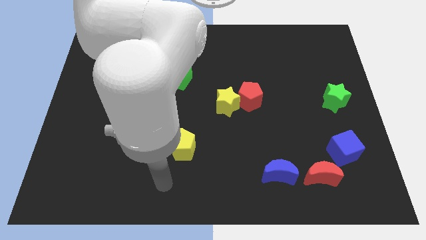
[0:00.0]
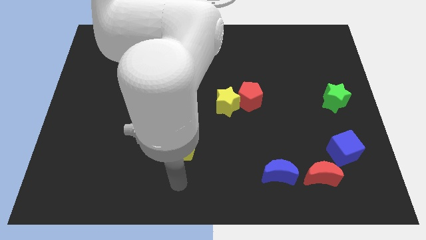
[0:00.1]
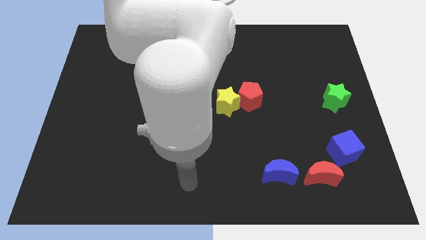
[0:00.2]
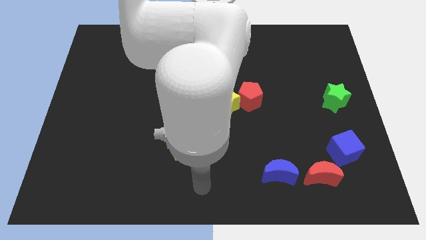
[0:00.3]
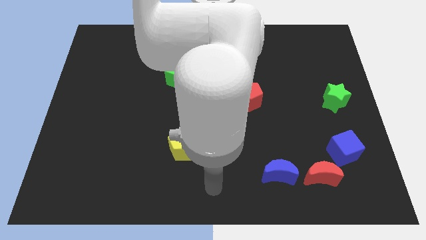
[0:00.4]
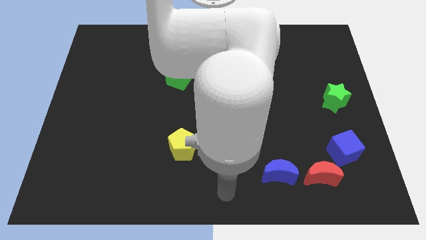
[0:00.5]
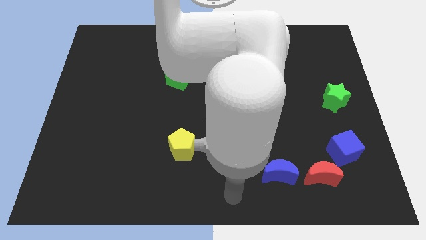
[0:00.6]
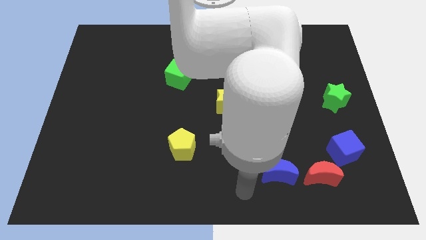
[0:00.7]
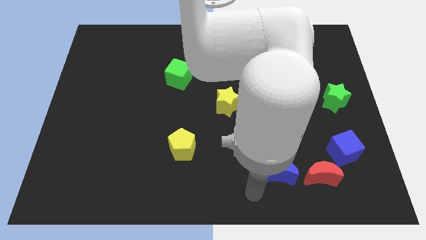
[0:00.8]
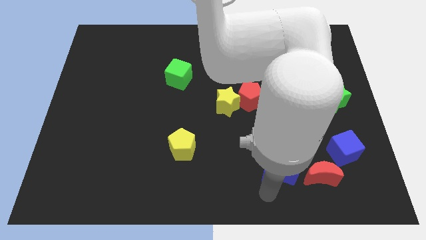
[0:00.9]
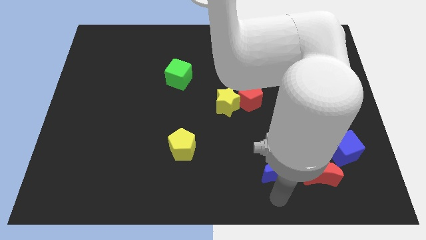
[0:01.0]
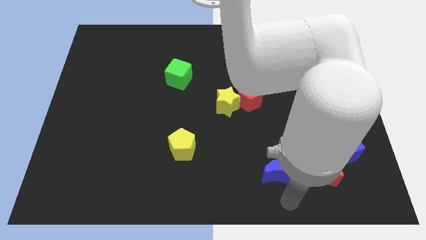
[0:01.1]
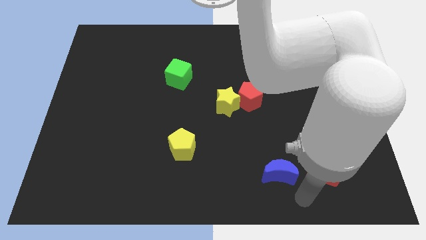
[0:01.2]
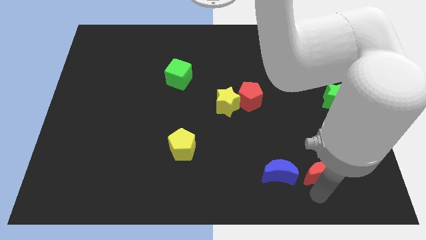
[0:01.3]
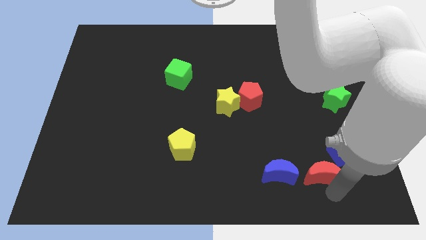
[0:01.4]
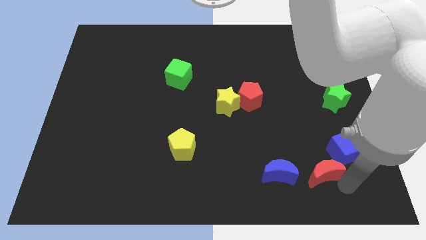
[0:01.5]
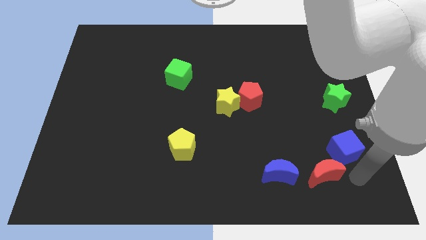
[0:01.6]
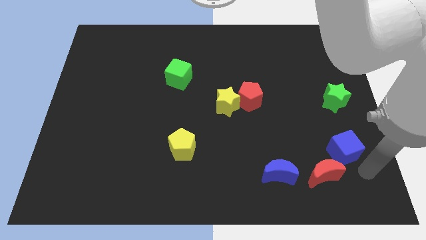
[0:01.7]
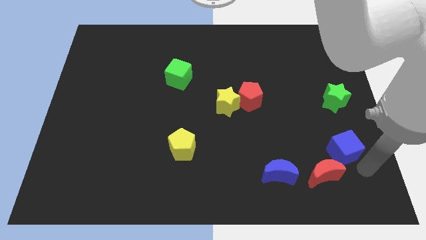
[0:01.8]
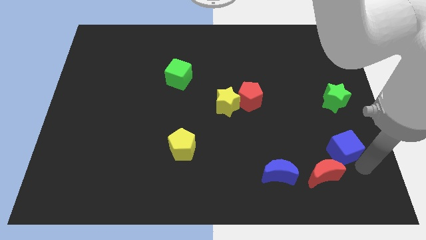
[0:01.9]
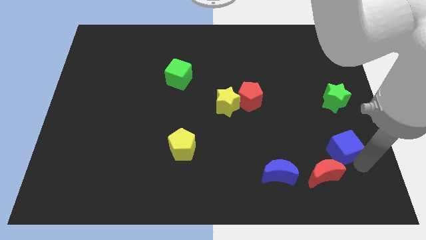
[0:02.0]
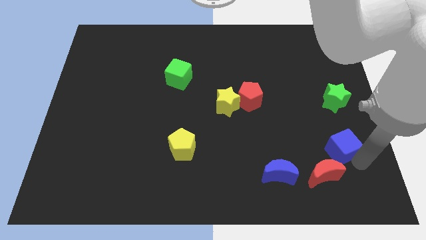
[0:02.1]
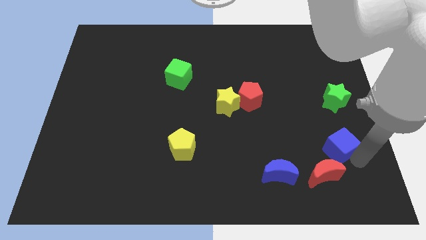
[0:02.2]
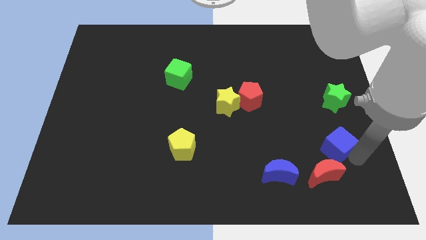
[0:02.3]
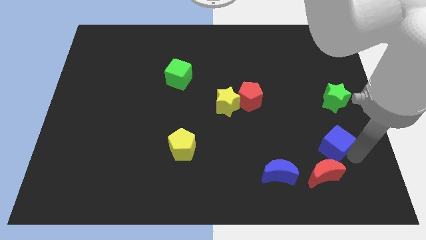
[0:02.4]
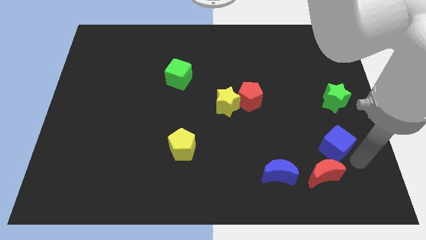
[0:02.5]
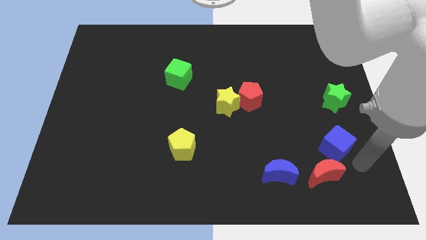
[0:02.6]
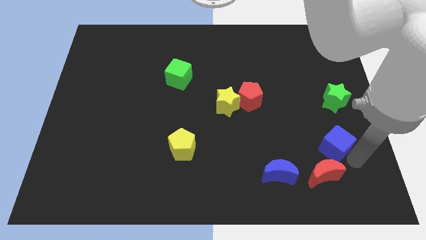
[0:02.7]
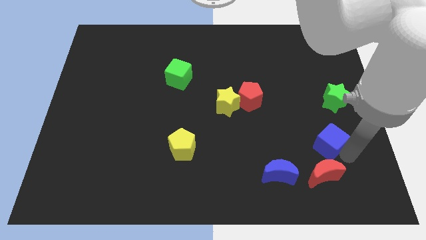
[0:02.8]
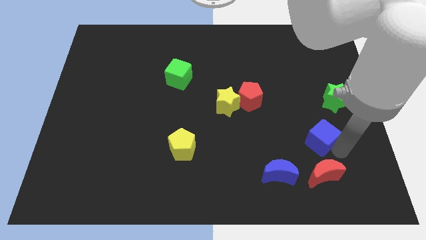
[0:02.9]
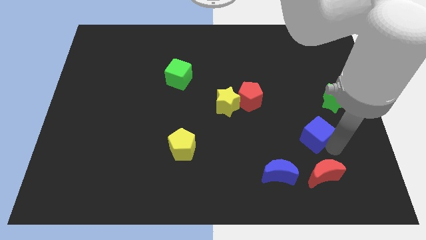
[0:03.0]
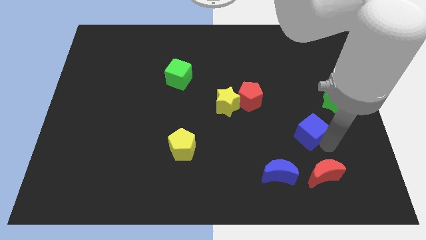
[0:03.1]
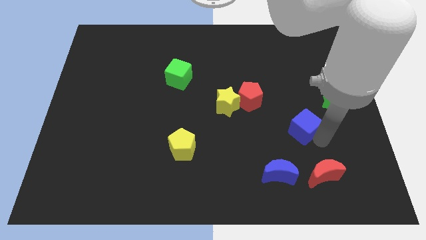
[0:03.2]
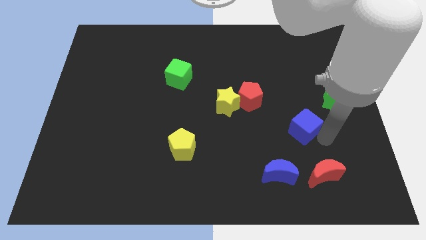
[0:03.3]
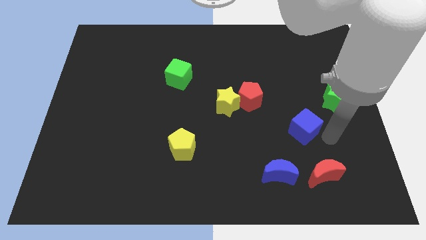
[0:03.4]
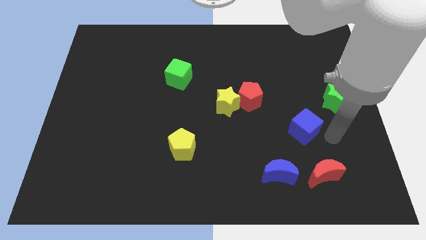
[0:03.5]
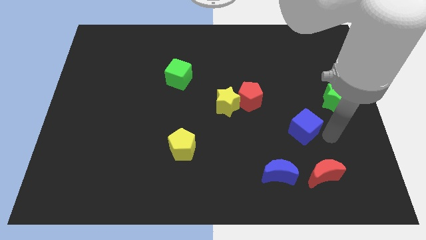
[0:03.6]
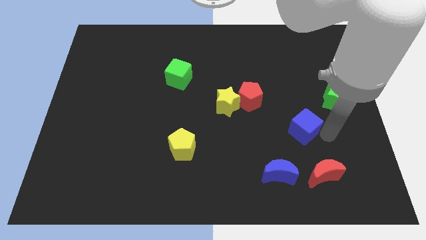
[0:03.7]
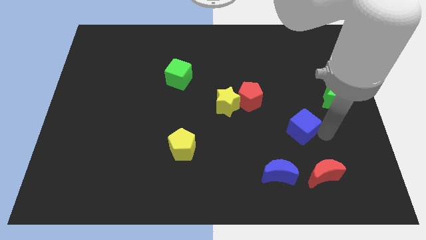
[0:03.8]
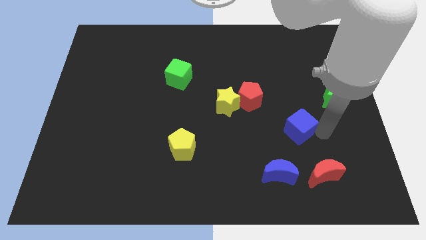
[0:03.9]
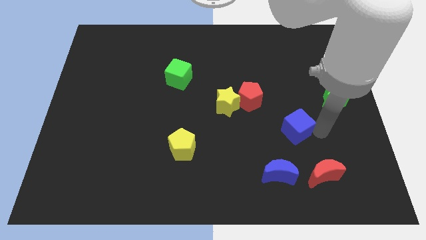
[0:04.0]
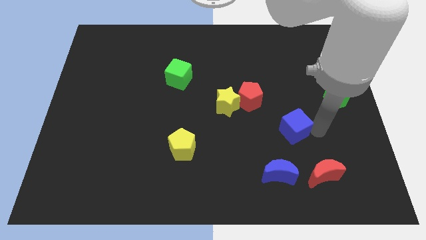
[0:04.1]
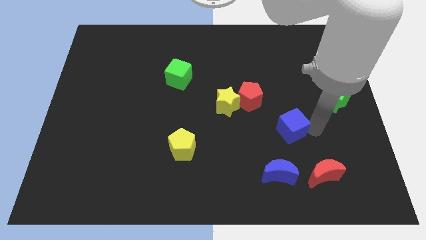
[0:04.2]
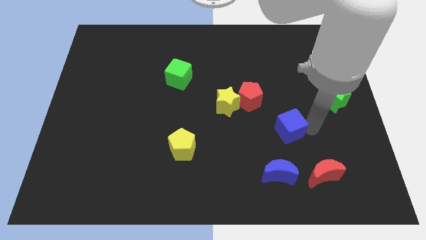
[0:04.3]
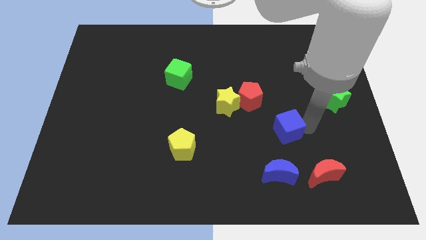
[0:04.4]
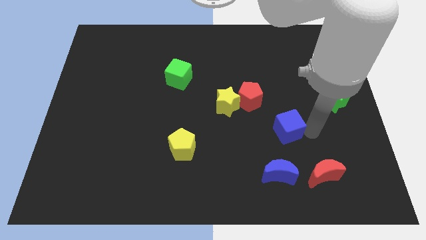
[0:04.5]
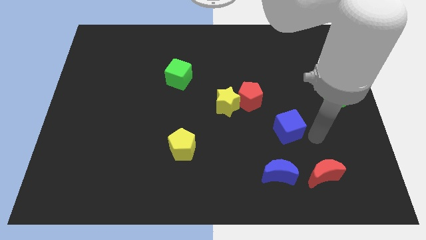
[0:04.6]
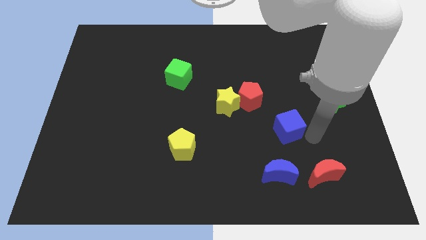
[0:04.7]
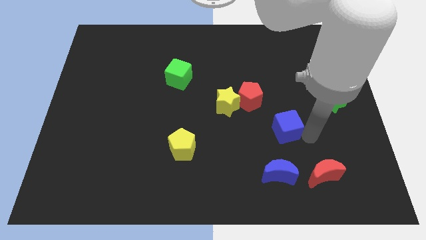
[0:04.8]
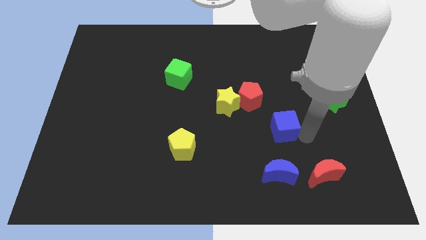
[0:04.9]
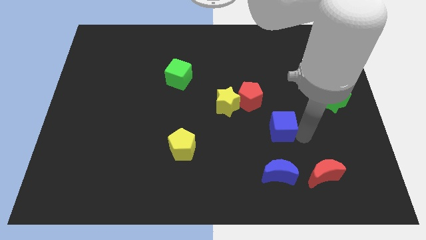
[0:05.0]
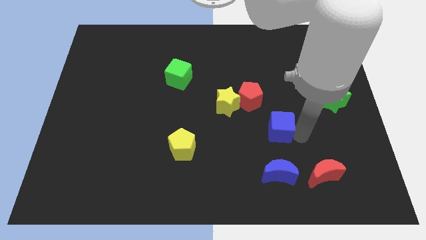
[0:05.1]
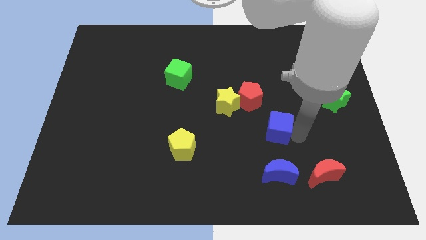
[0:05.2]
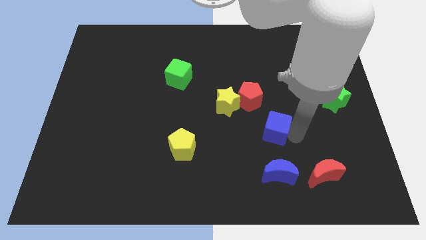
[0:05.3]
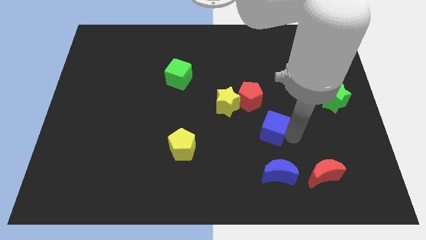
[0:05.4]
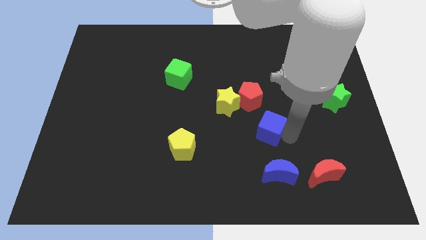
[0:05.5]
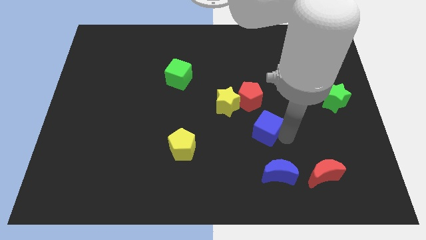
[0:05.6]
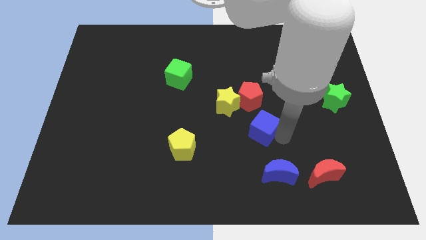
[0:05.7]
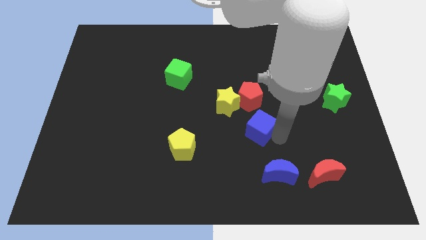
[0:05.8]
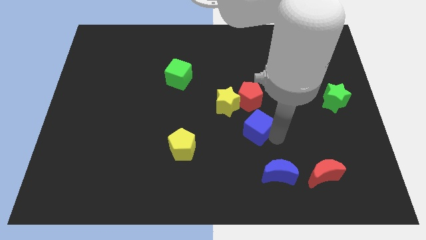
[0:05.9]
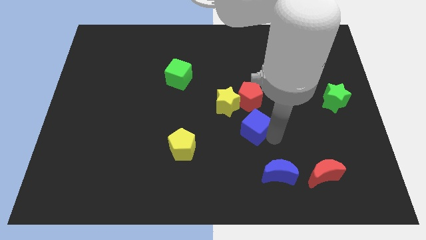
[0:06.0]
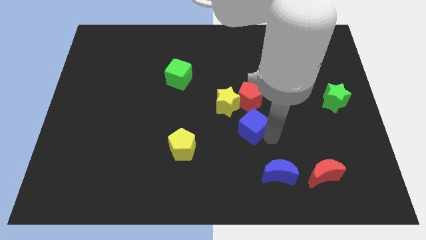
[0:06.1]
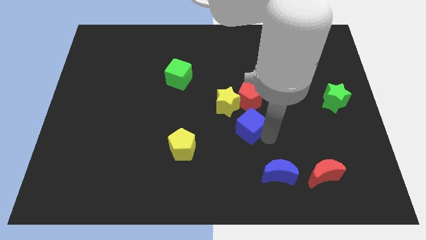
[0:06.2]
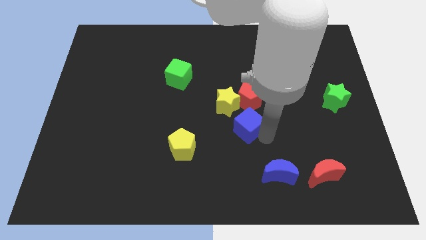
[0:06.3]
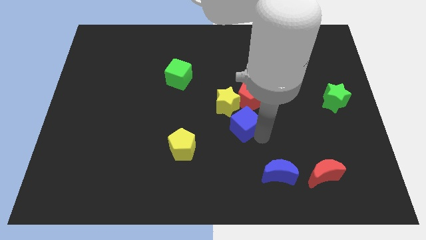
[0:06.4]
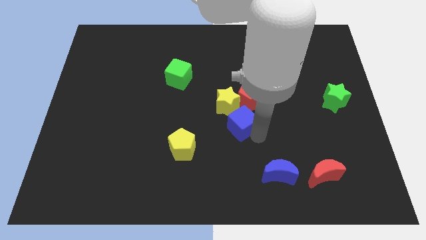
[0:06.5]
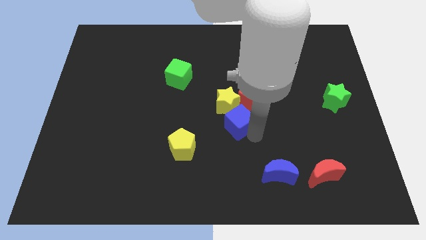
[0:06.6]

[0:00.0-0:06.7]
put the blue cube next to the yellow star
